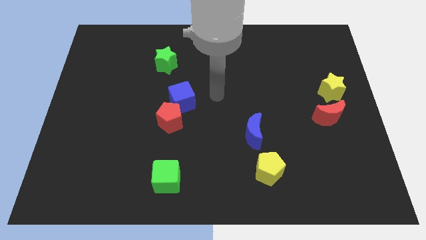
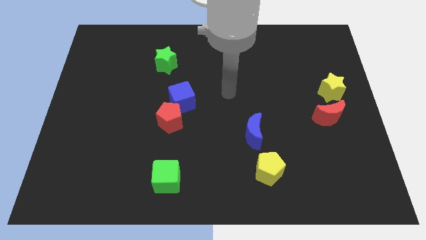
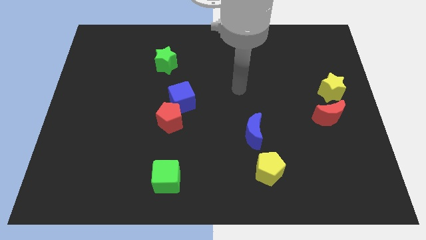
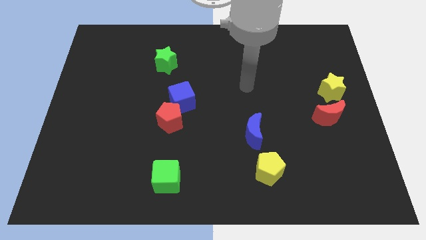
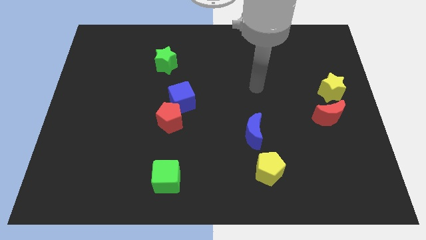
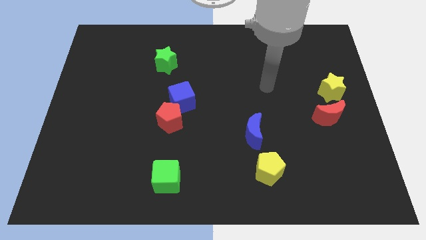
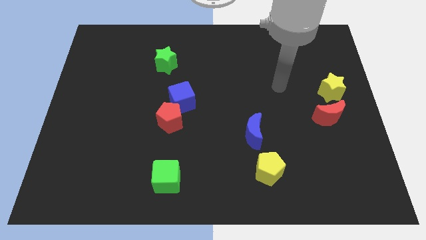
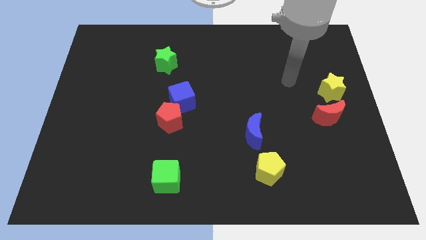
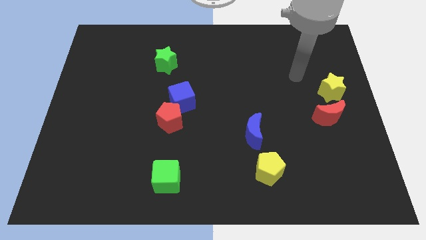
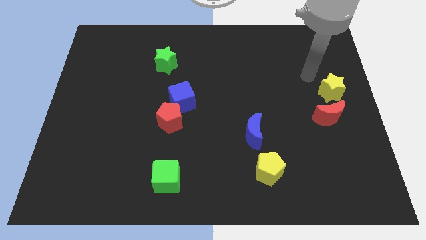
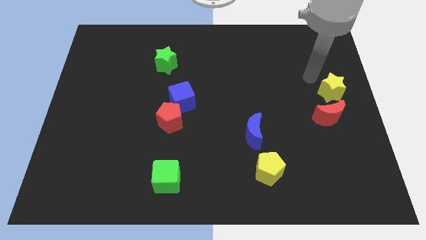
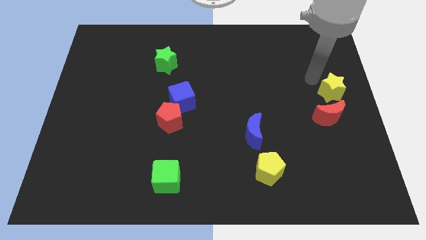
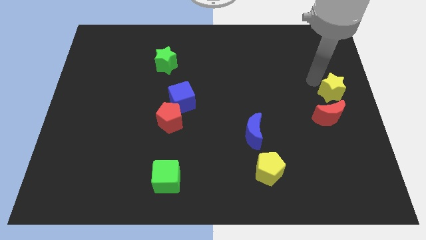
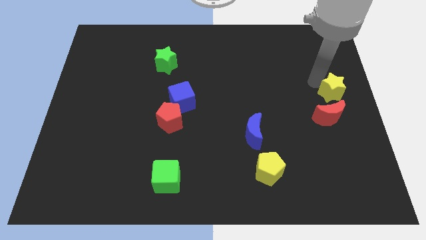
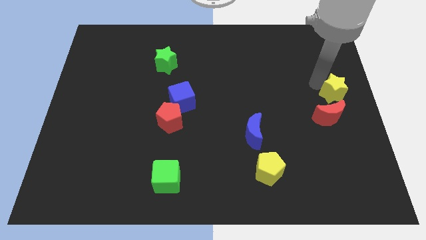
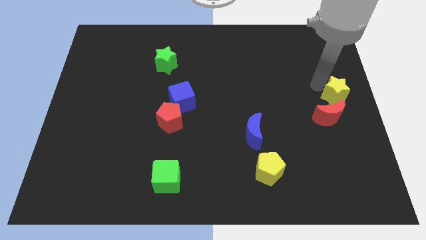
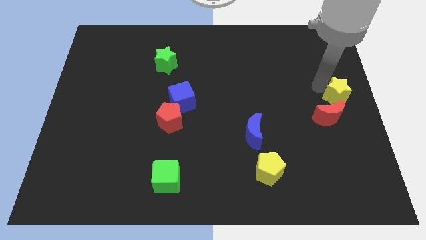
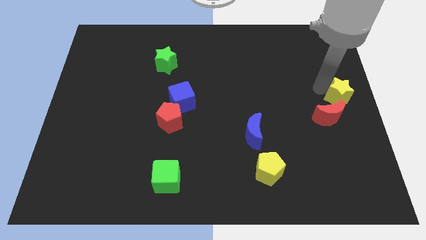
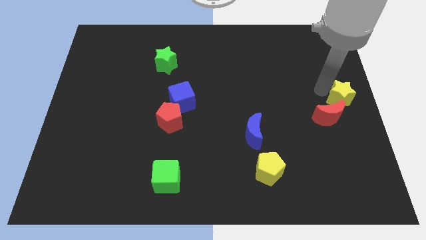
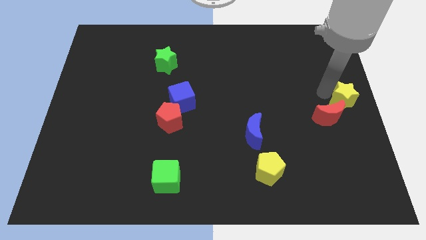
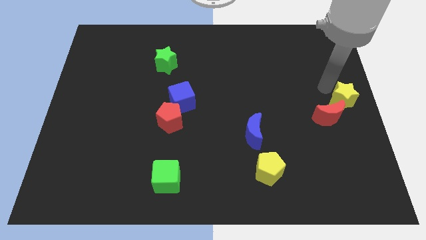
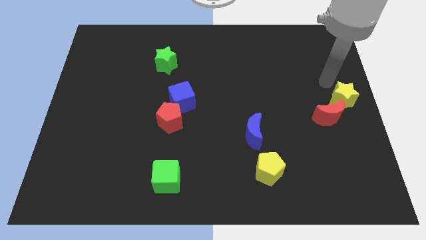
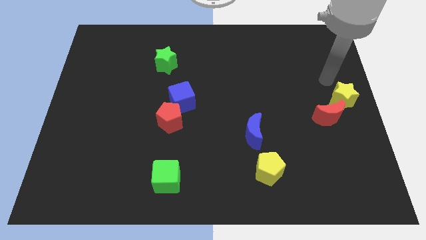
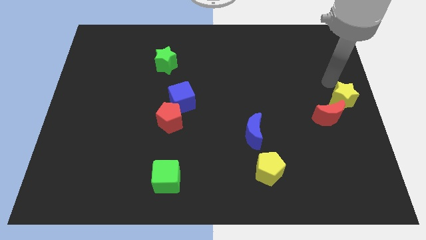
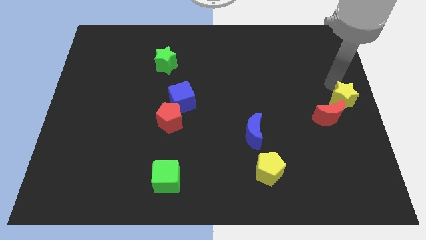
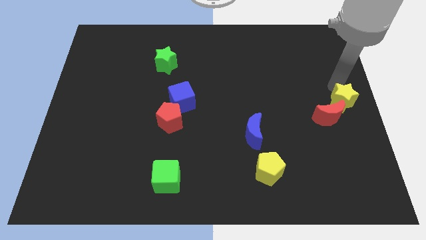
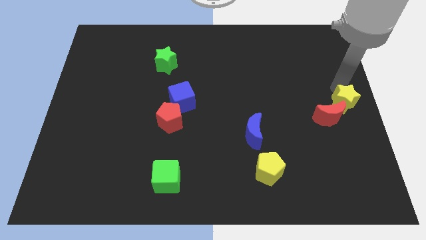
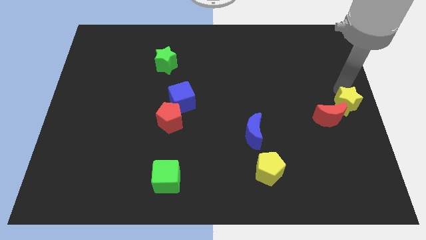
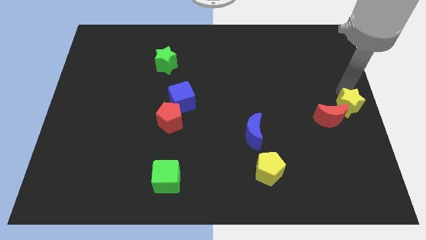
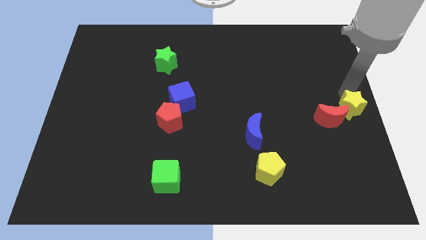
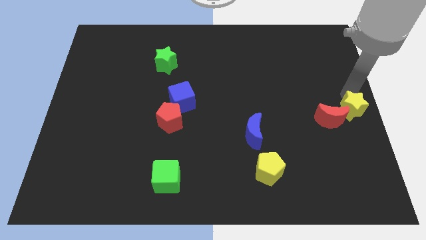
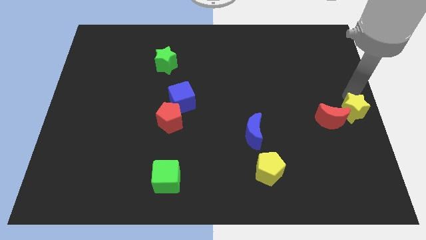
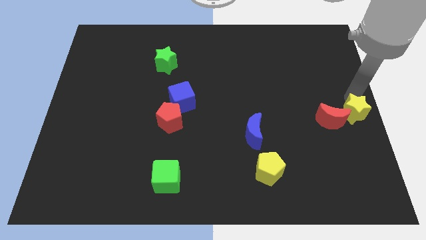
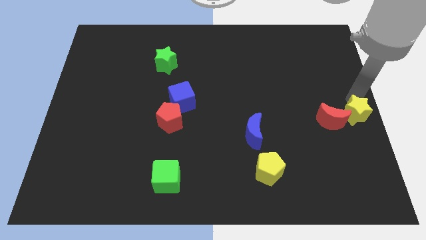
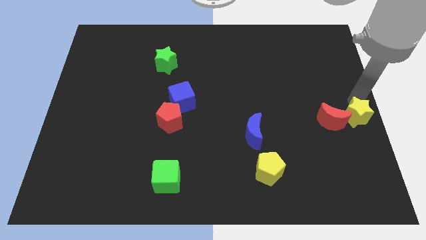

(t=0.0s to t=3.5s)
move the yellow star downwards somewhat

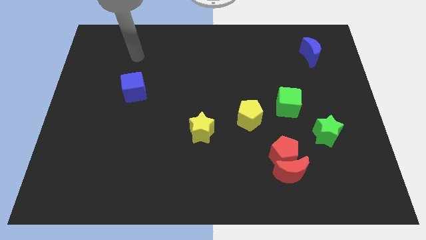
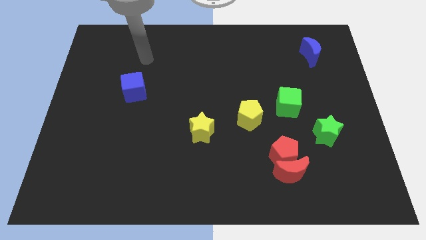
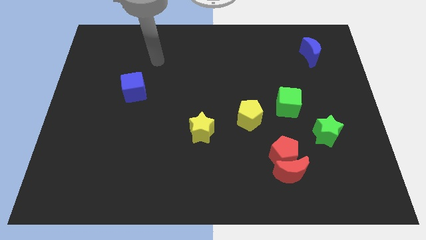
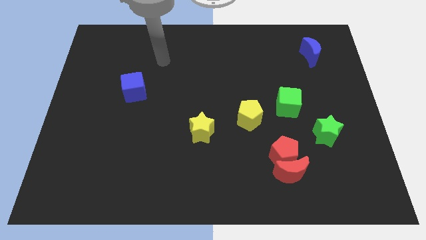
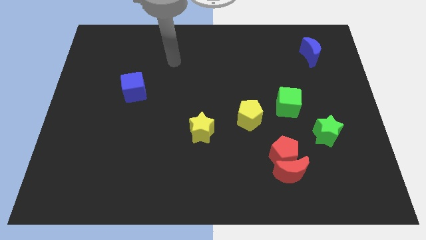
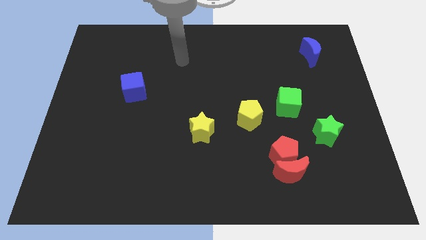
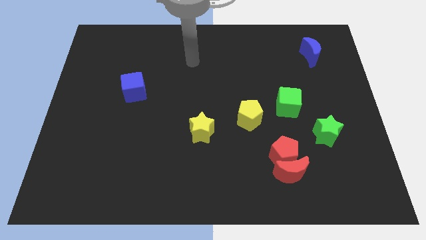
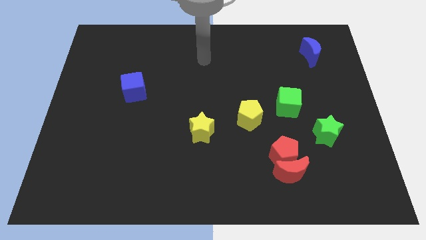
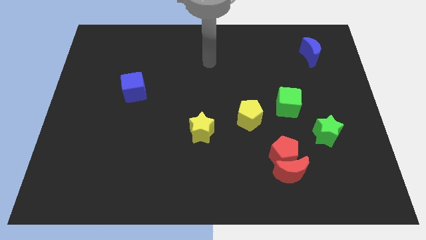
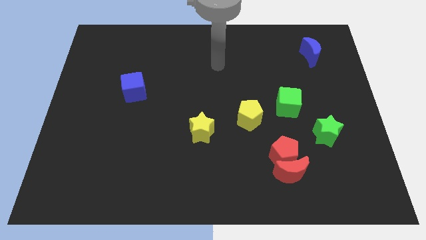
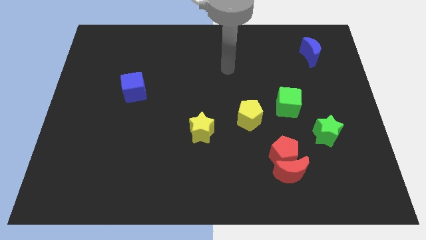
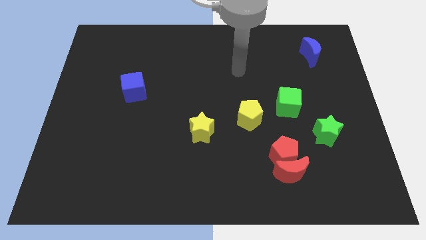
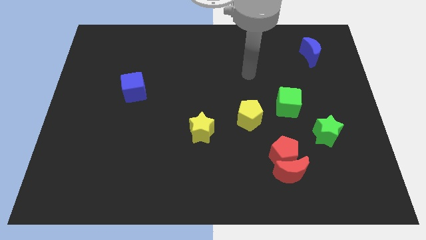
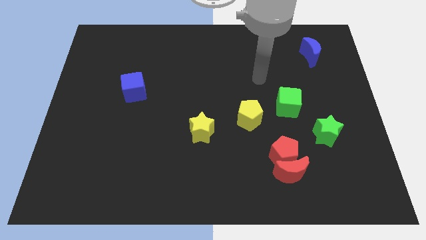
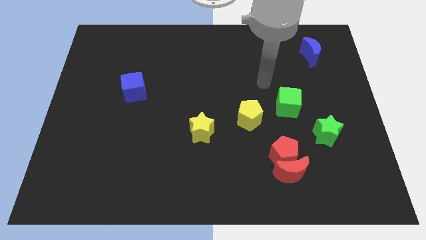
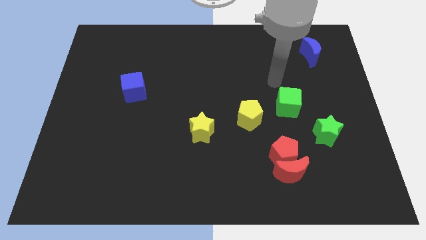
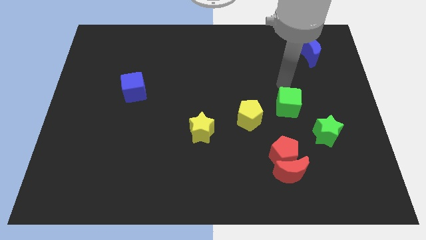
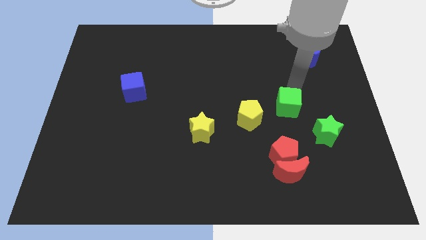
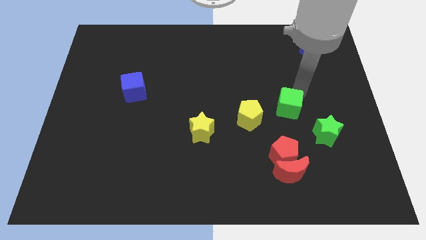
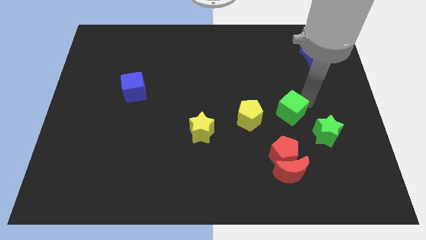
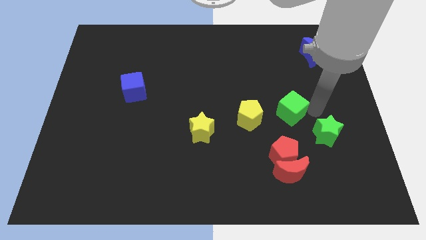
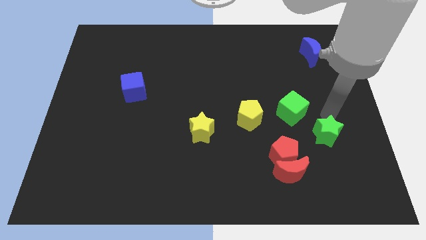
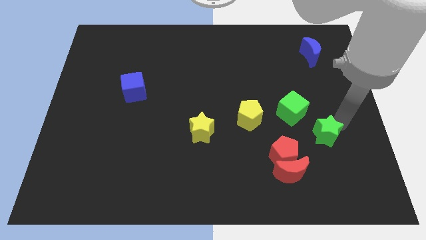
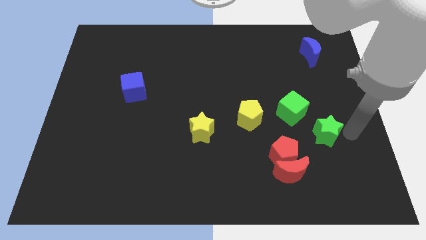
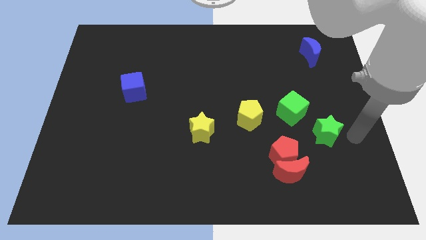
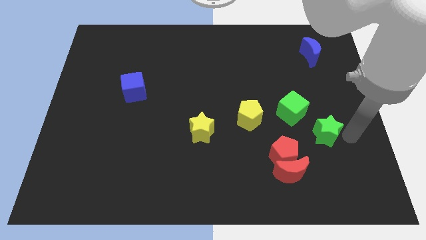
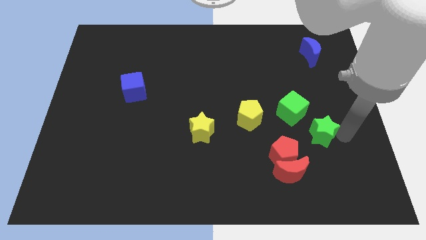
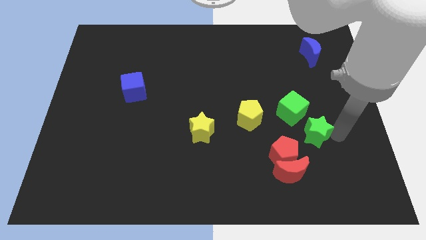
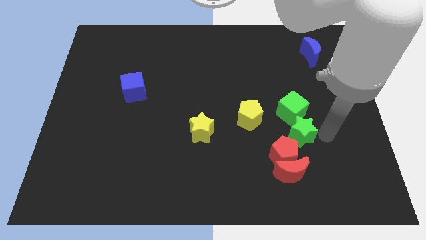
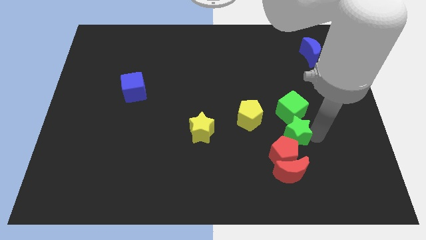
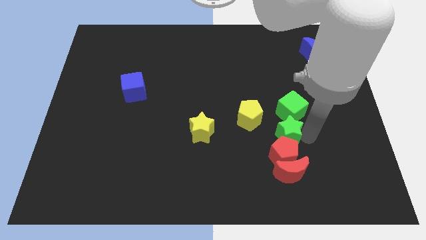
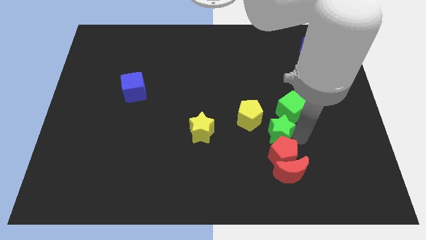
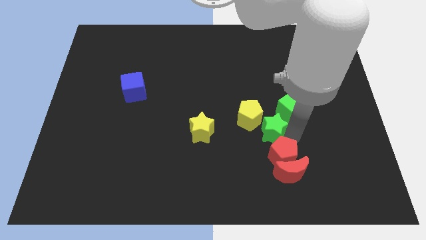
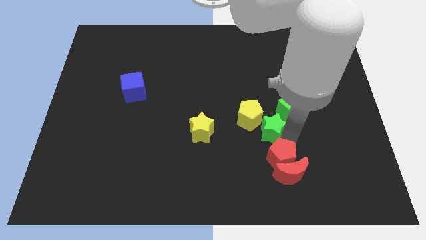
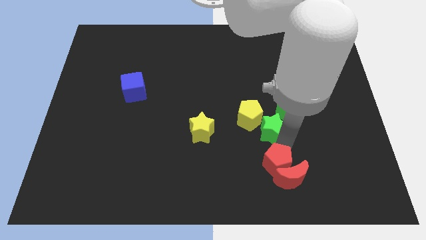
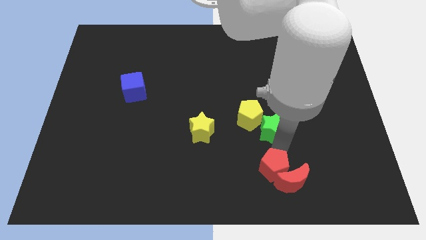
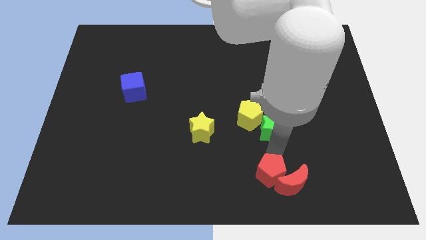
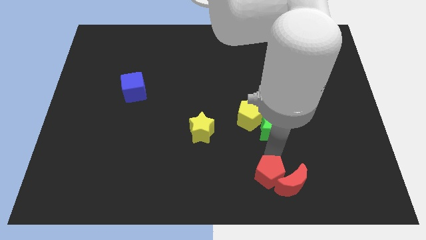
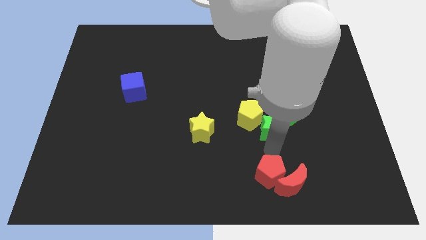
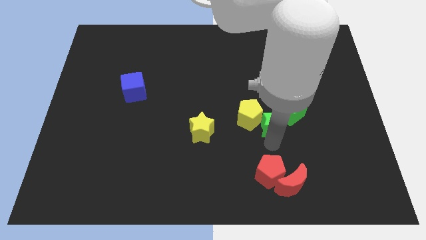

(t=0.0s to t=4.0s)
push the green star diagonally upwards and left a bit

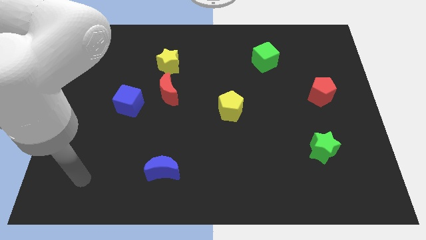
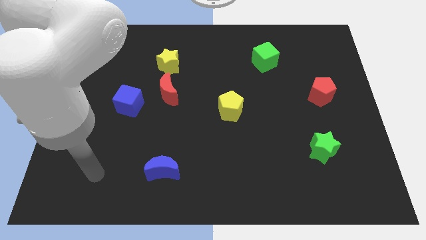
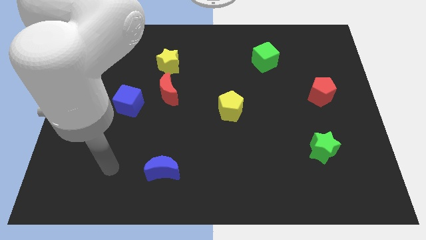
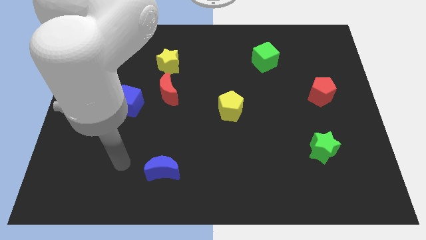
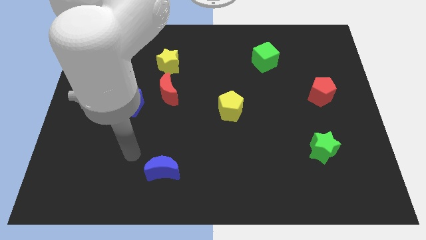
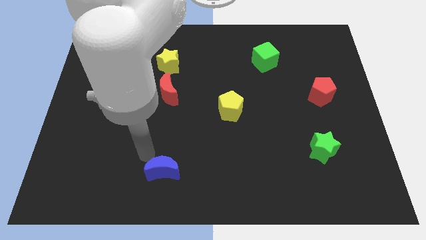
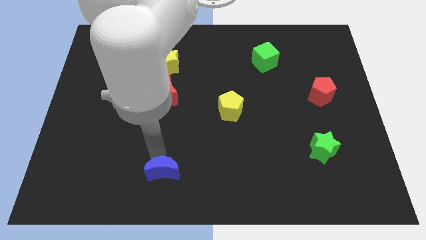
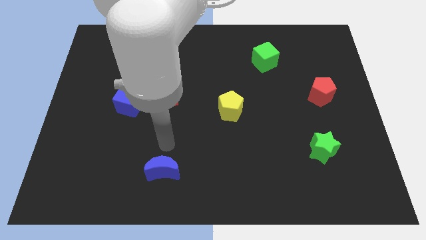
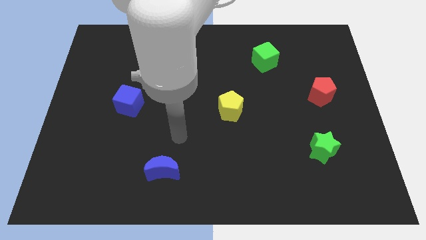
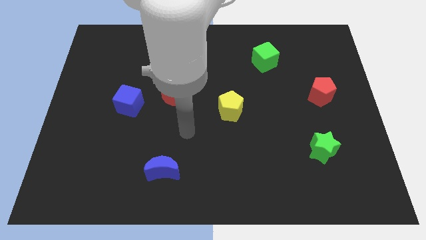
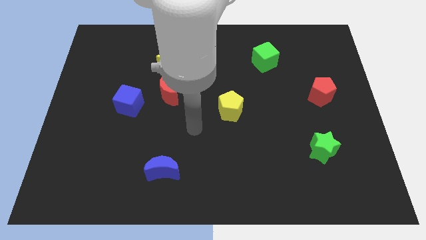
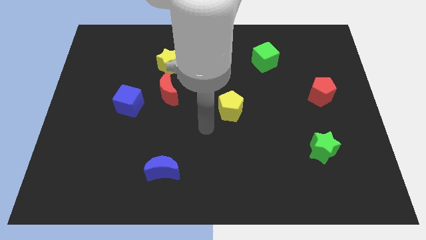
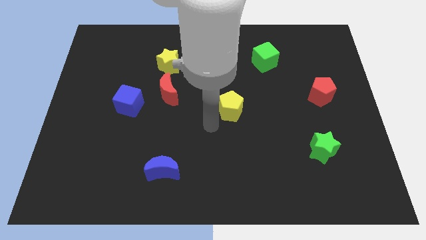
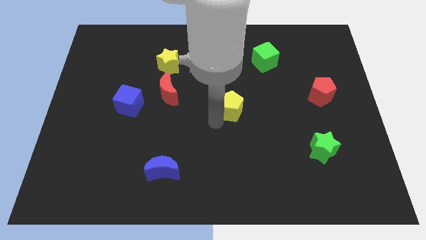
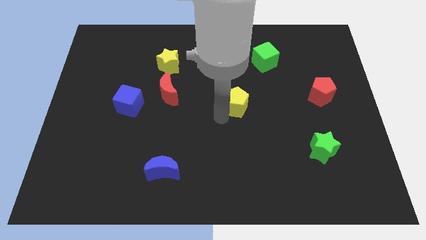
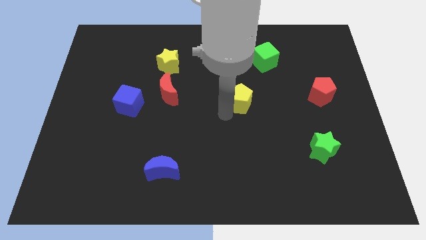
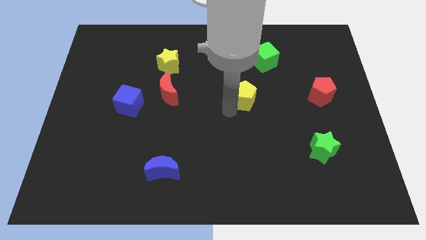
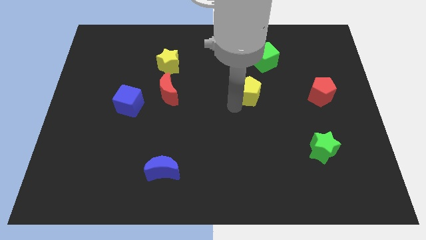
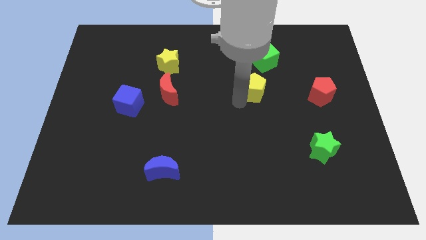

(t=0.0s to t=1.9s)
push the yellow pentagon a bit up and then right
